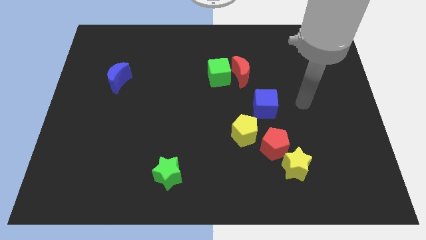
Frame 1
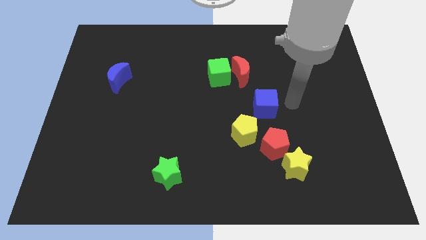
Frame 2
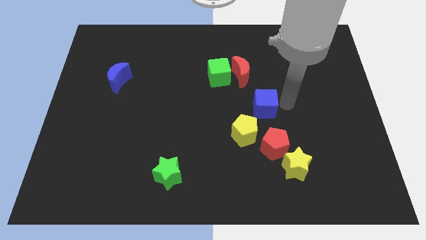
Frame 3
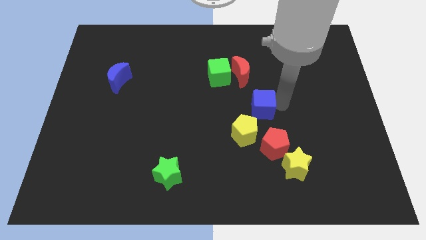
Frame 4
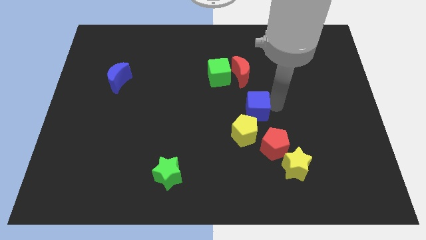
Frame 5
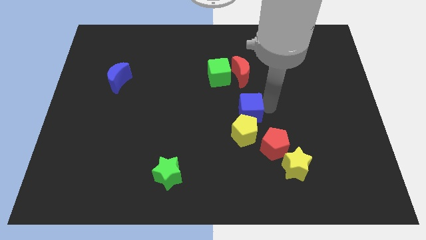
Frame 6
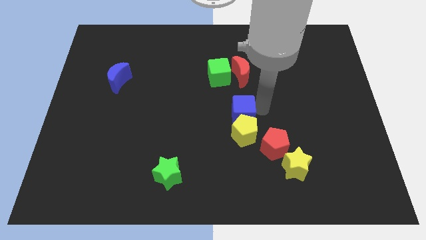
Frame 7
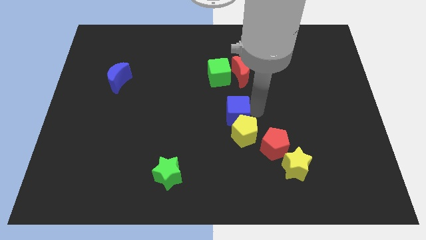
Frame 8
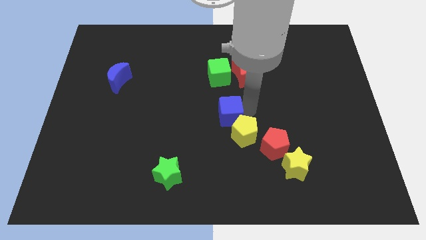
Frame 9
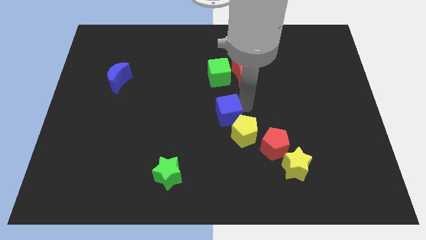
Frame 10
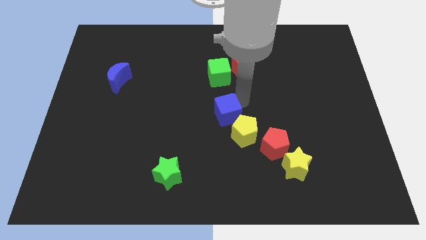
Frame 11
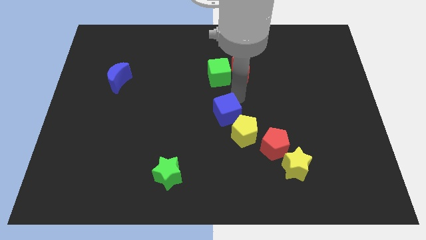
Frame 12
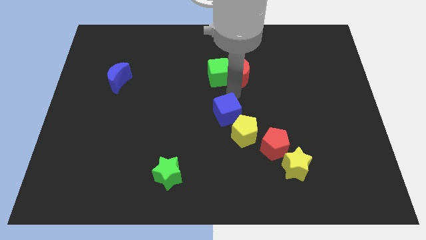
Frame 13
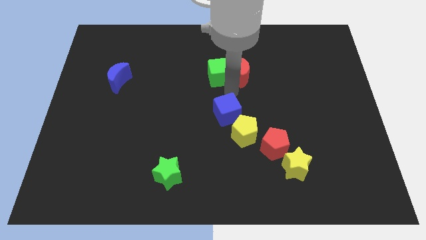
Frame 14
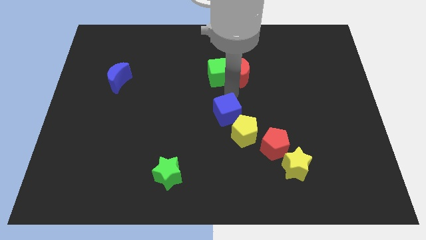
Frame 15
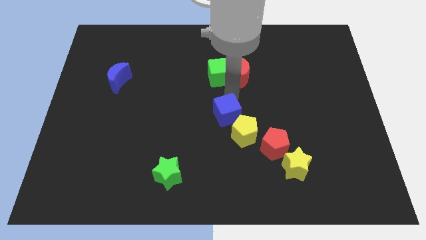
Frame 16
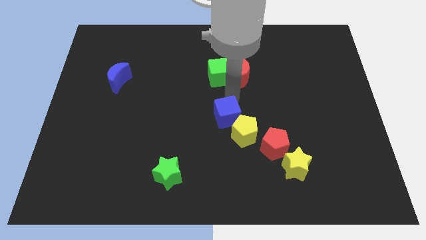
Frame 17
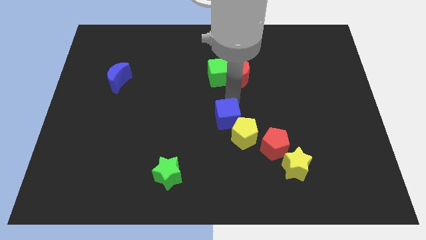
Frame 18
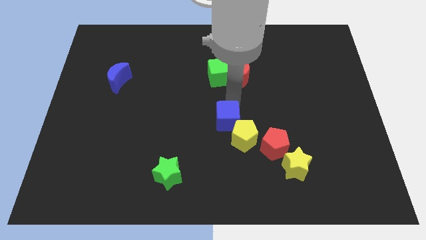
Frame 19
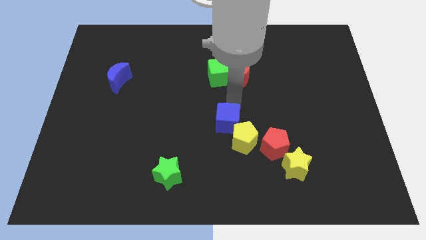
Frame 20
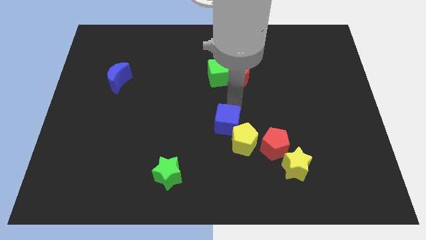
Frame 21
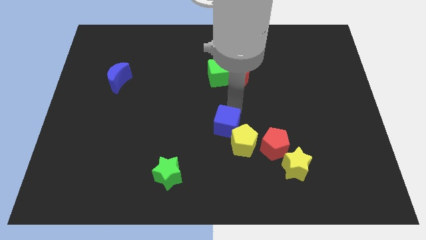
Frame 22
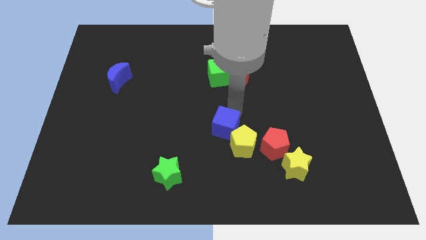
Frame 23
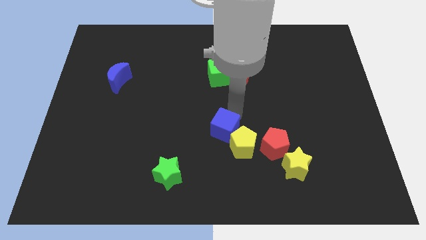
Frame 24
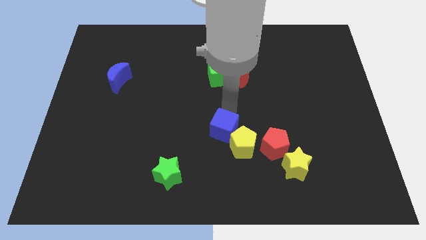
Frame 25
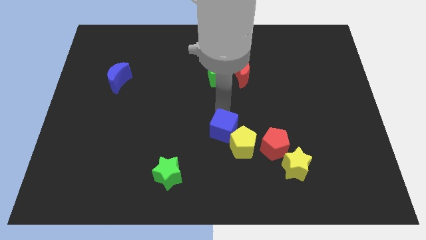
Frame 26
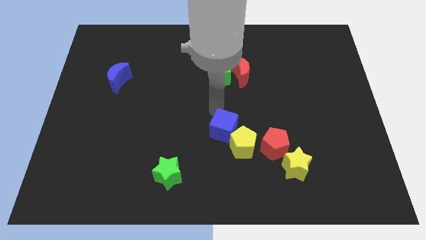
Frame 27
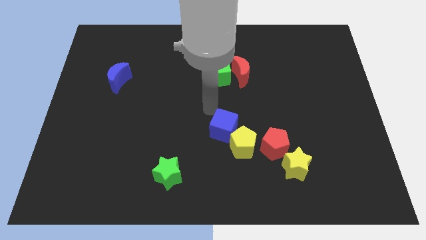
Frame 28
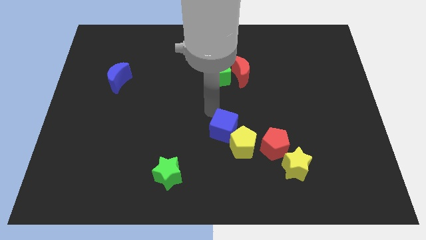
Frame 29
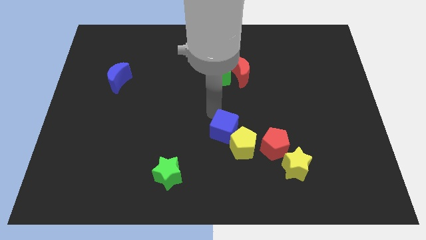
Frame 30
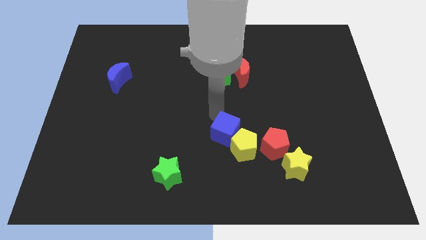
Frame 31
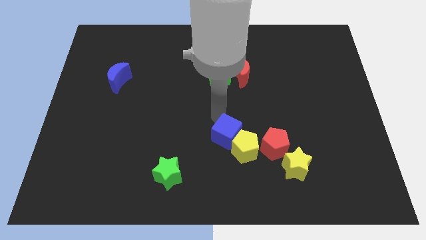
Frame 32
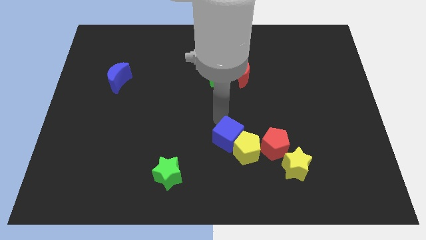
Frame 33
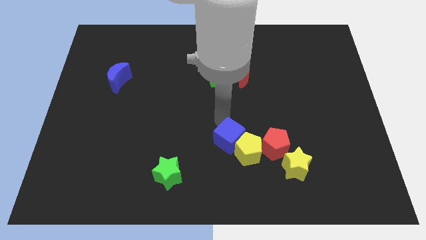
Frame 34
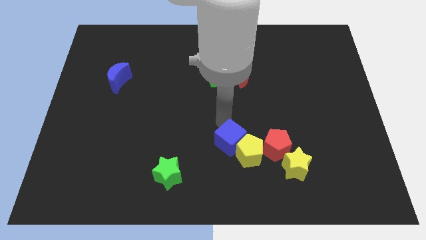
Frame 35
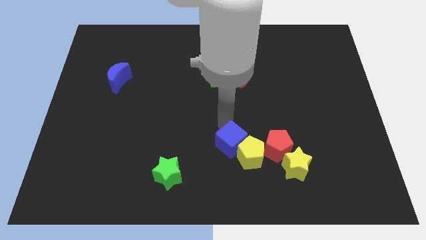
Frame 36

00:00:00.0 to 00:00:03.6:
slightly move the blue cube downwards

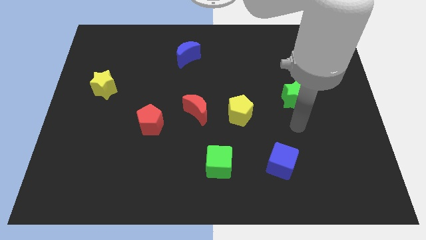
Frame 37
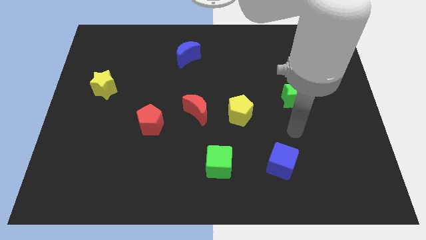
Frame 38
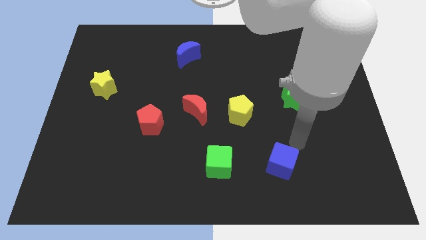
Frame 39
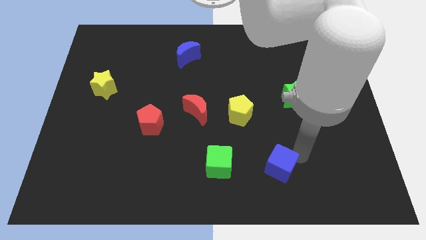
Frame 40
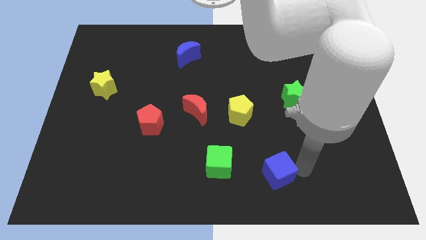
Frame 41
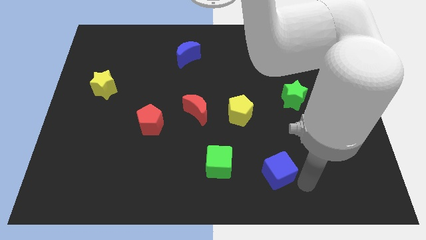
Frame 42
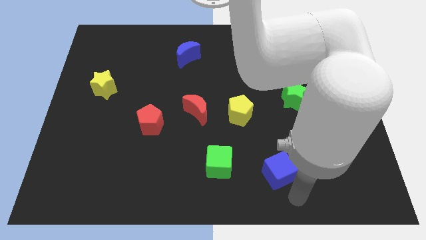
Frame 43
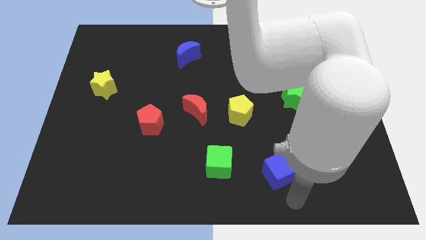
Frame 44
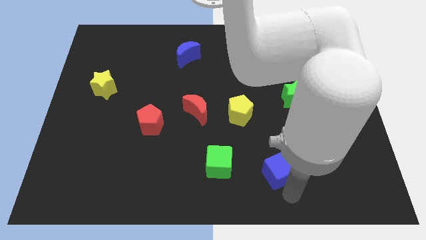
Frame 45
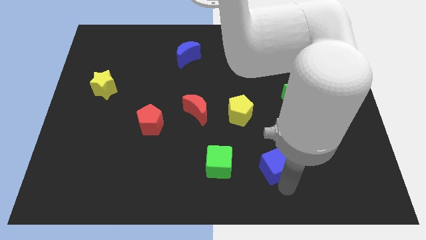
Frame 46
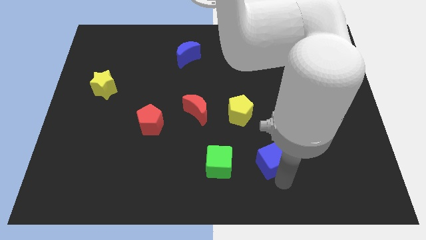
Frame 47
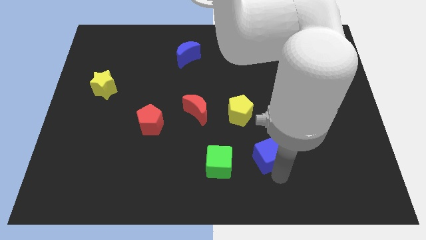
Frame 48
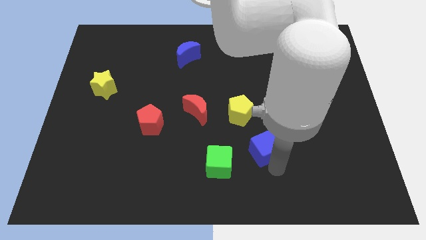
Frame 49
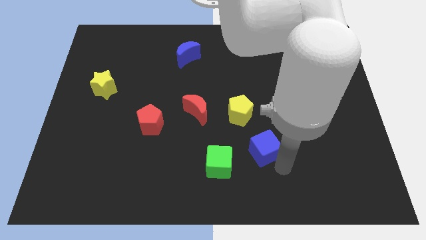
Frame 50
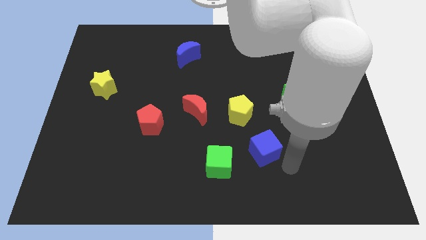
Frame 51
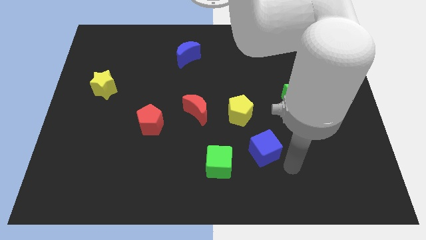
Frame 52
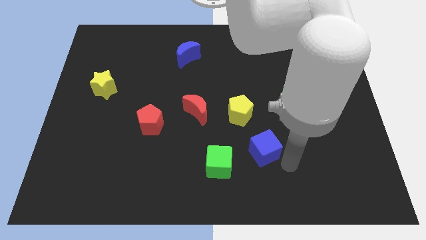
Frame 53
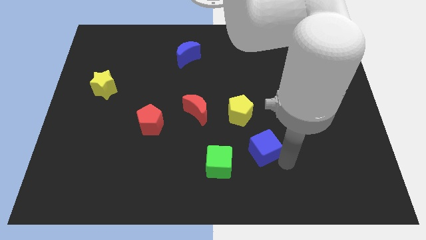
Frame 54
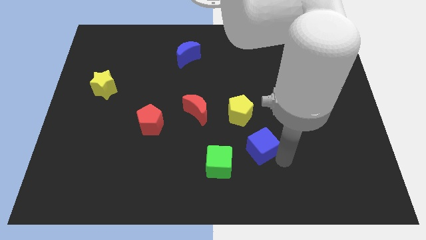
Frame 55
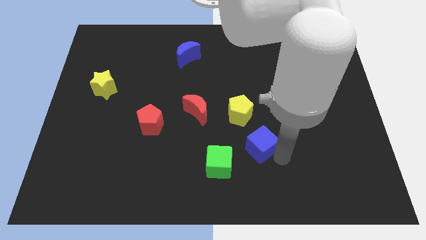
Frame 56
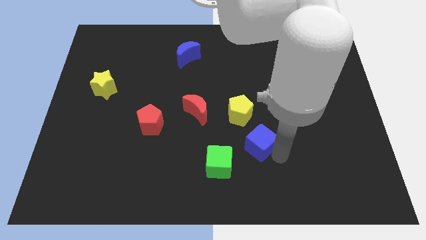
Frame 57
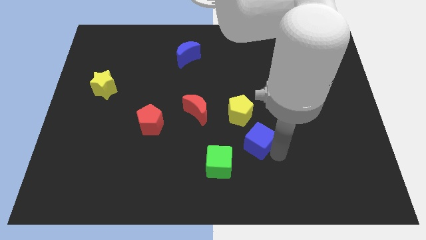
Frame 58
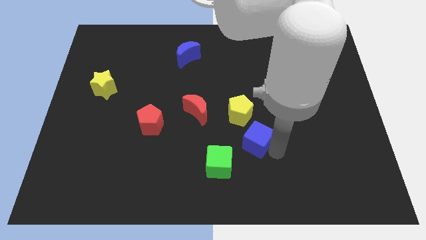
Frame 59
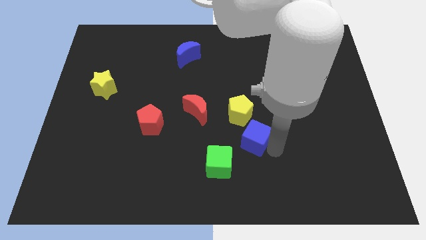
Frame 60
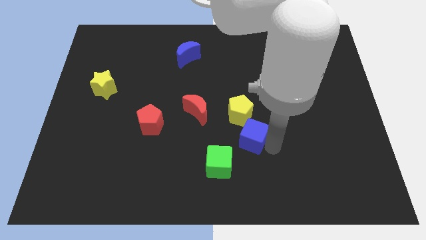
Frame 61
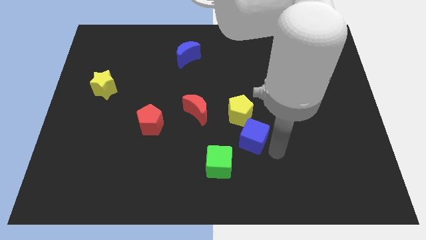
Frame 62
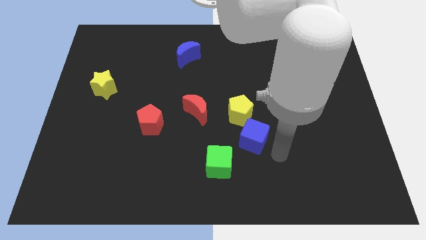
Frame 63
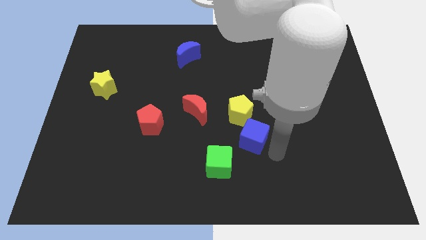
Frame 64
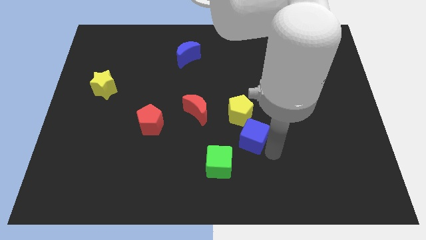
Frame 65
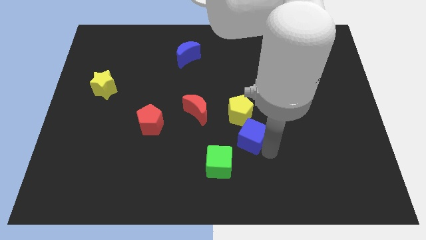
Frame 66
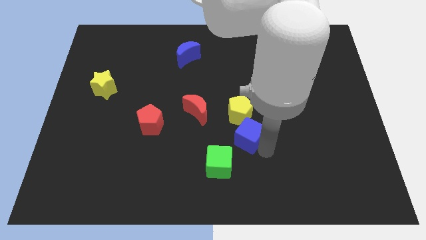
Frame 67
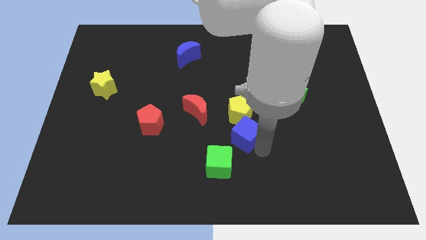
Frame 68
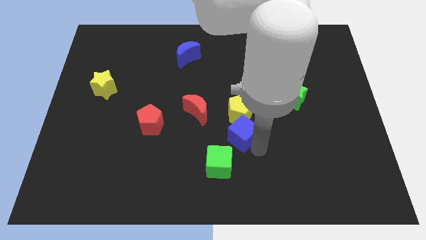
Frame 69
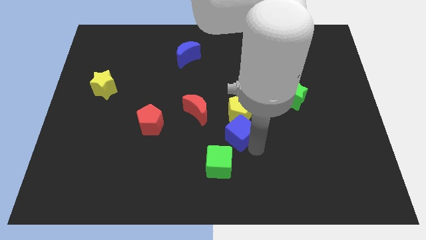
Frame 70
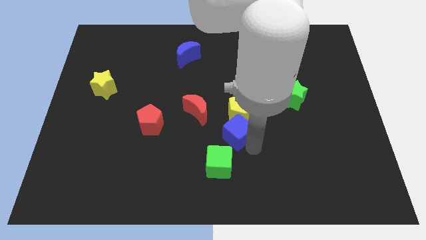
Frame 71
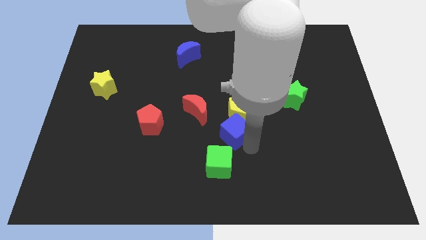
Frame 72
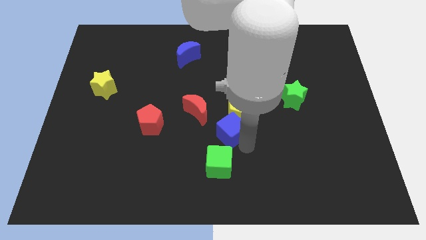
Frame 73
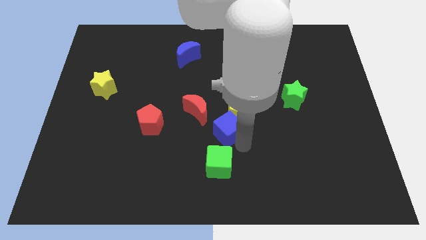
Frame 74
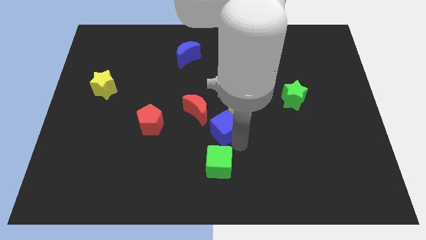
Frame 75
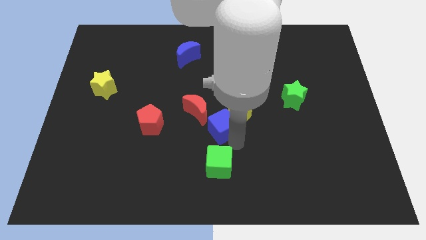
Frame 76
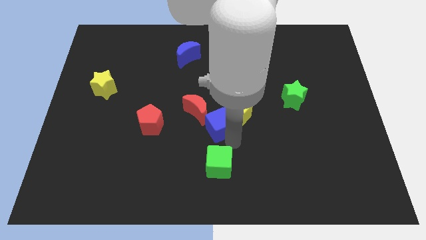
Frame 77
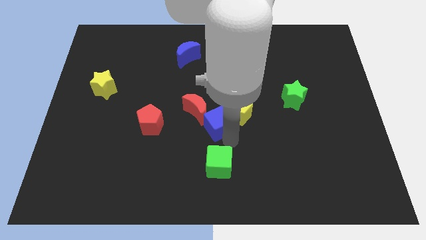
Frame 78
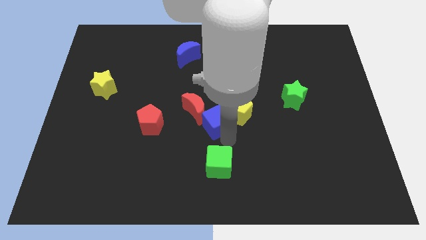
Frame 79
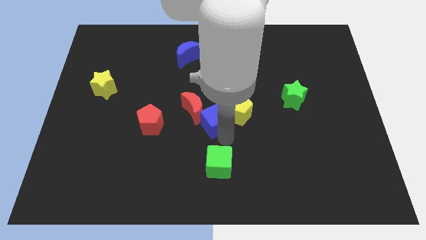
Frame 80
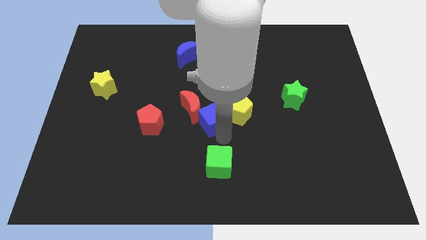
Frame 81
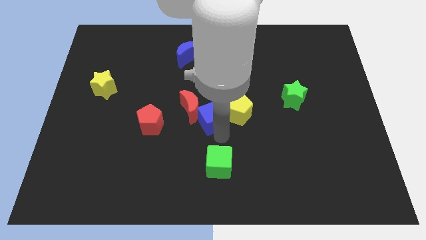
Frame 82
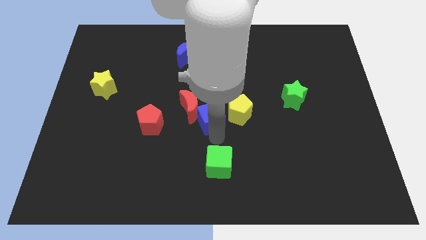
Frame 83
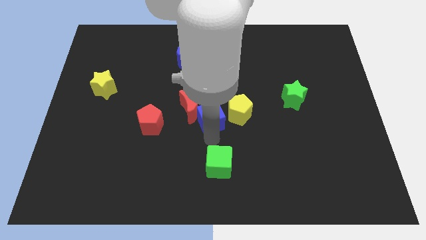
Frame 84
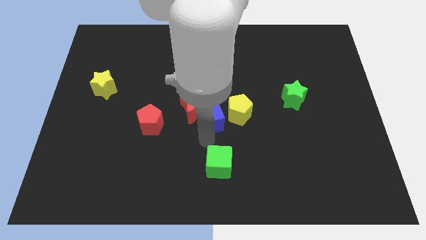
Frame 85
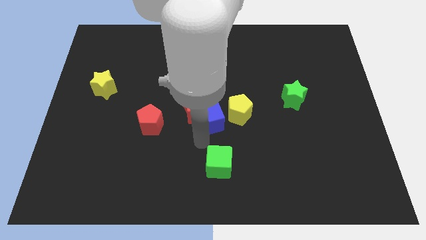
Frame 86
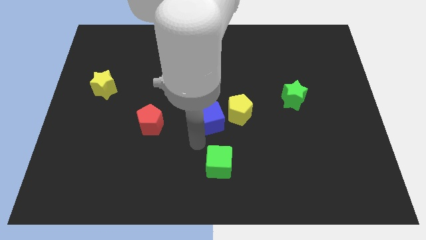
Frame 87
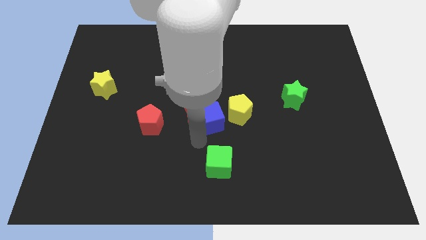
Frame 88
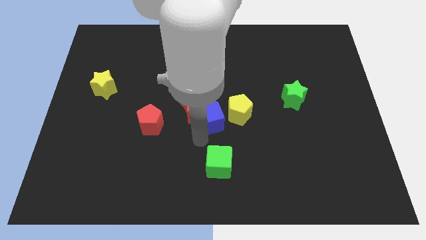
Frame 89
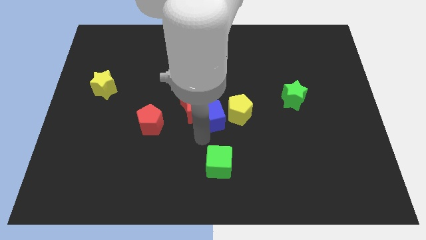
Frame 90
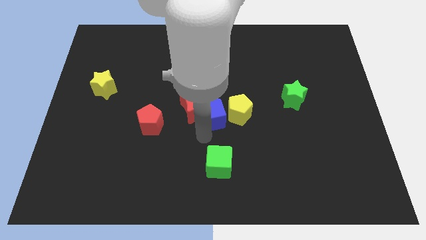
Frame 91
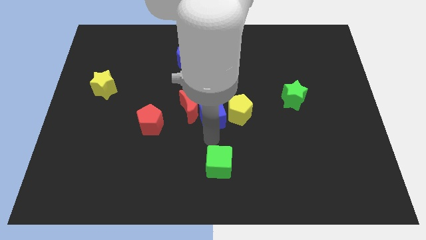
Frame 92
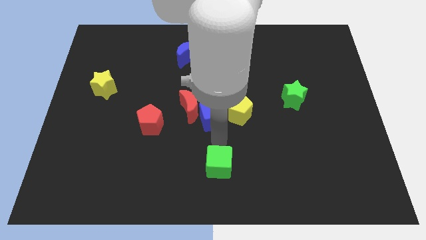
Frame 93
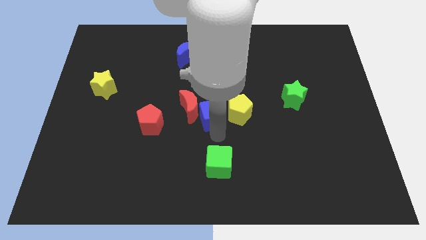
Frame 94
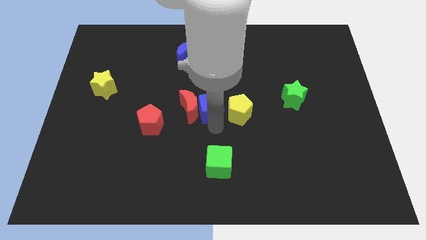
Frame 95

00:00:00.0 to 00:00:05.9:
move the blue cube upwards and left diagonally
